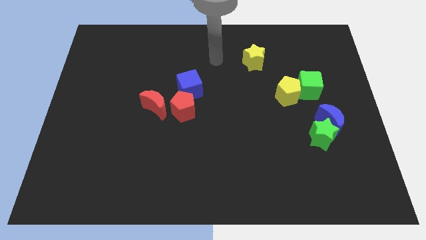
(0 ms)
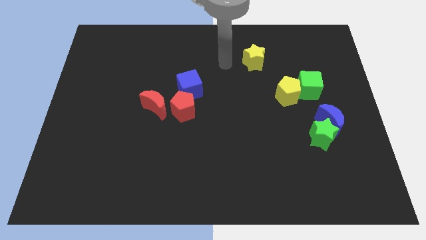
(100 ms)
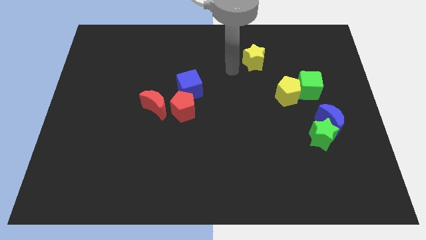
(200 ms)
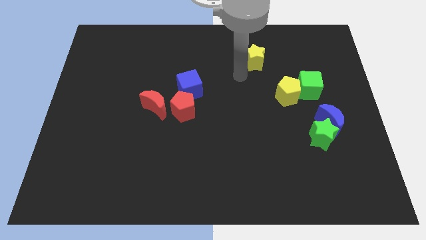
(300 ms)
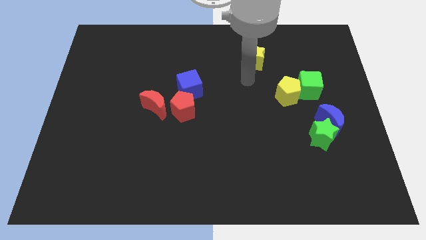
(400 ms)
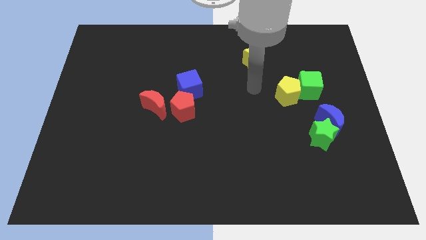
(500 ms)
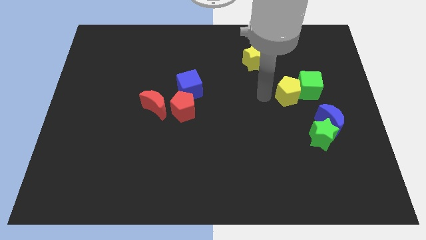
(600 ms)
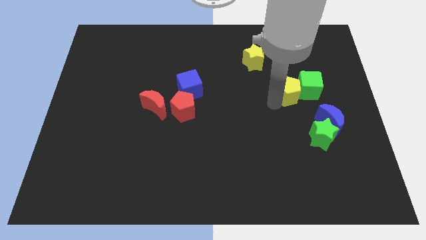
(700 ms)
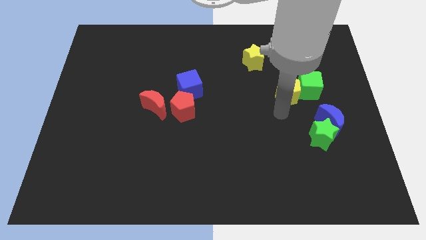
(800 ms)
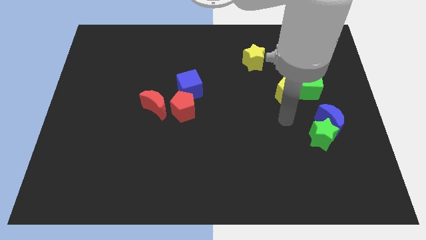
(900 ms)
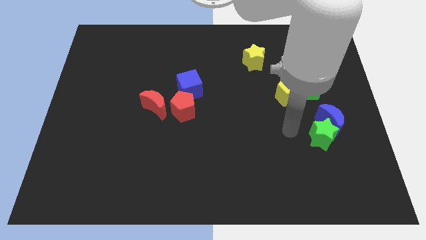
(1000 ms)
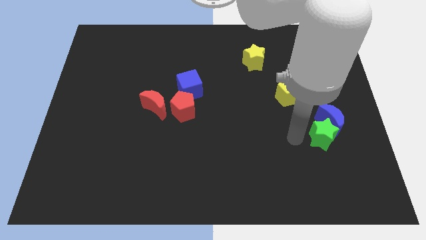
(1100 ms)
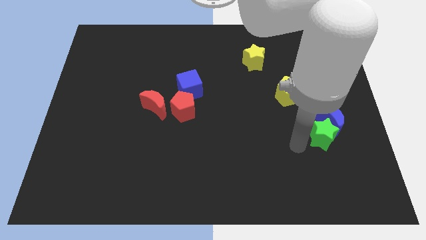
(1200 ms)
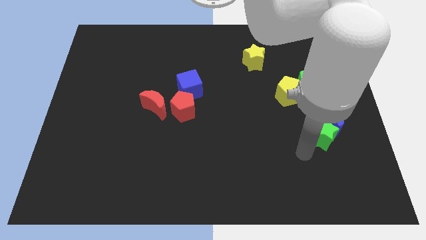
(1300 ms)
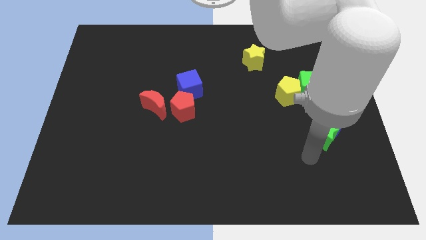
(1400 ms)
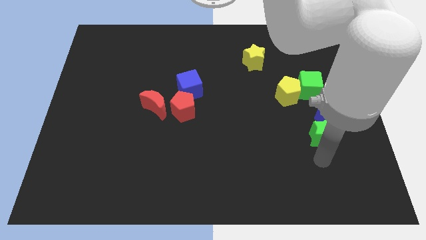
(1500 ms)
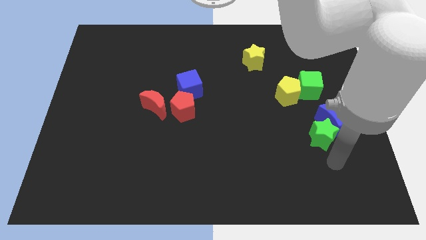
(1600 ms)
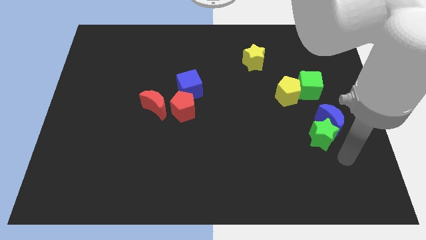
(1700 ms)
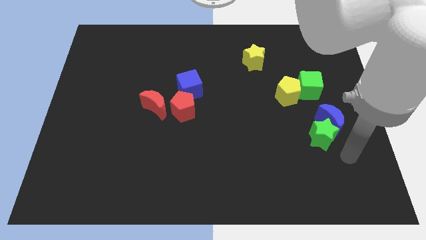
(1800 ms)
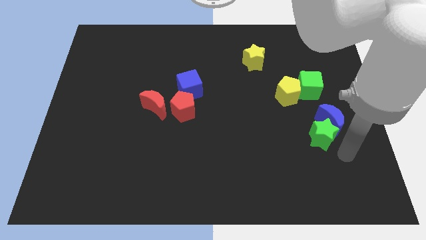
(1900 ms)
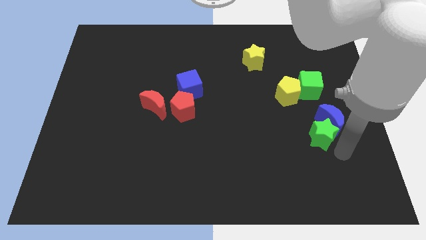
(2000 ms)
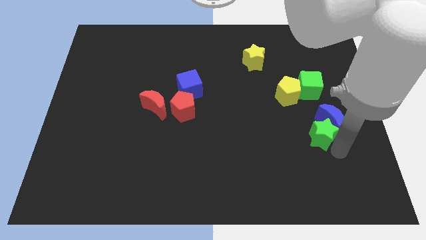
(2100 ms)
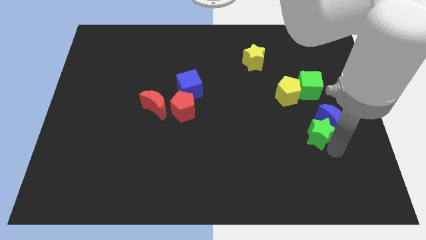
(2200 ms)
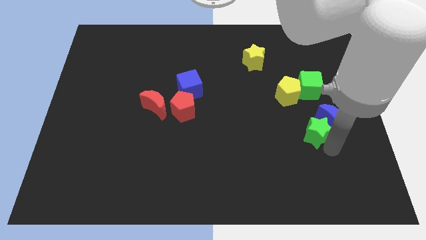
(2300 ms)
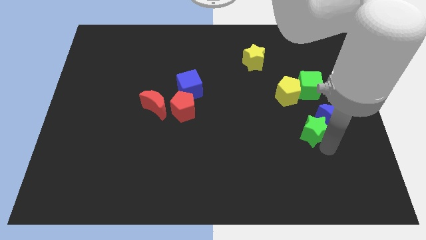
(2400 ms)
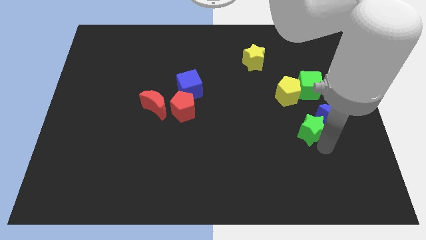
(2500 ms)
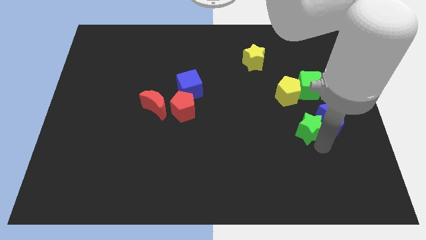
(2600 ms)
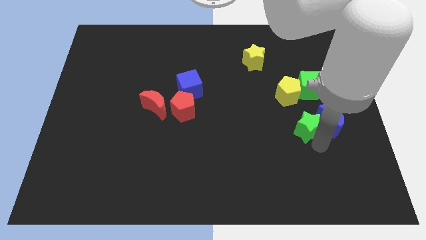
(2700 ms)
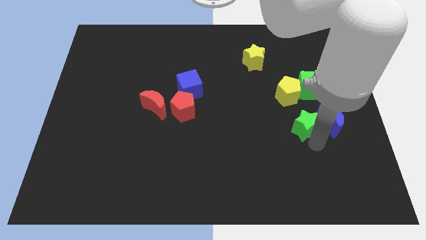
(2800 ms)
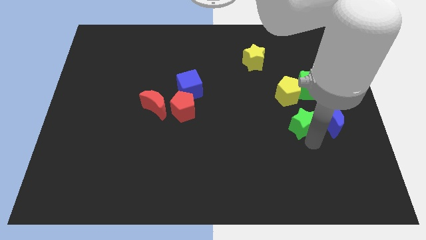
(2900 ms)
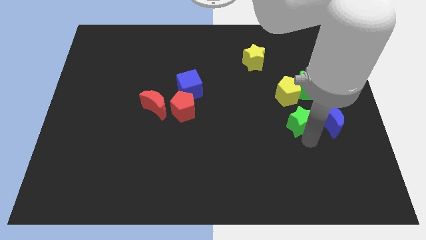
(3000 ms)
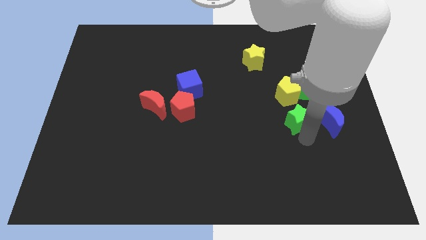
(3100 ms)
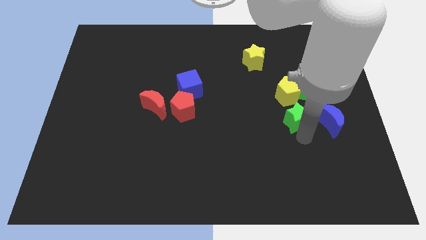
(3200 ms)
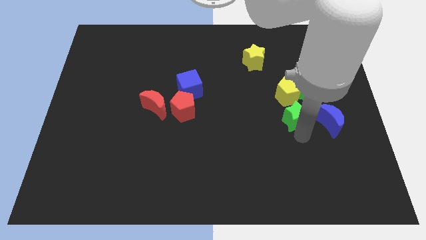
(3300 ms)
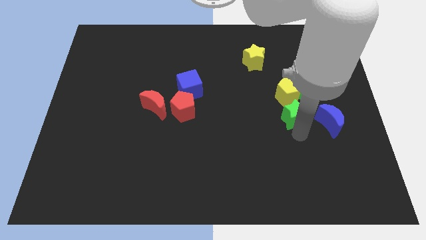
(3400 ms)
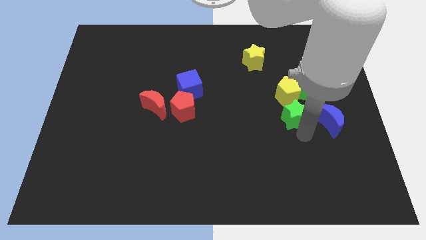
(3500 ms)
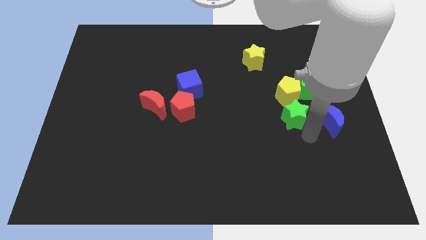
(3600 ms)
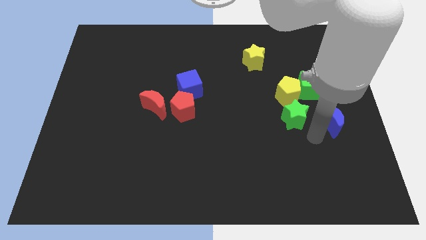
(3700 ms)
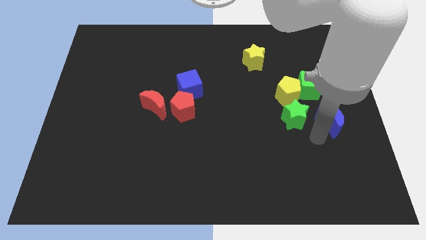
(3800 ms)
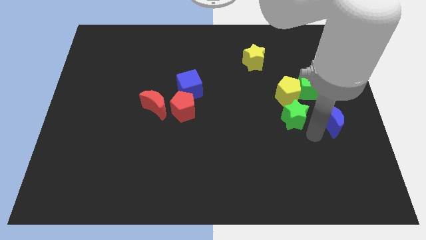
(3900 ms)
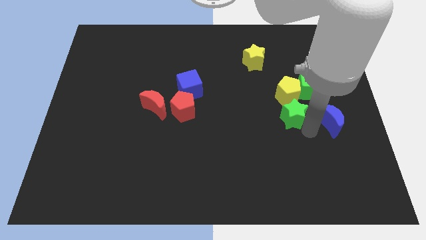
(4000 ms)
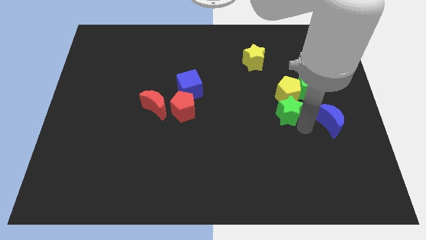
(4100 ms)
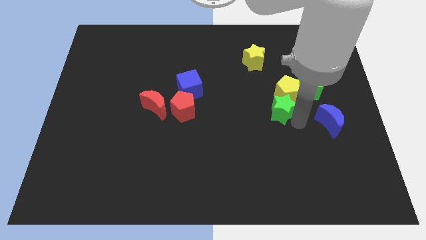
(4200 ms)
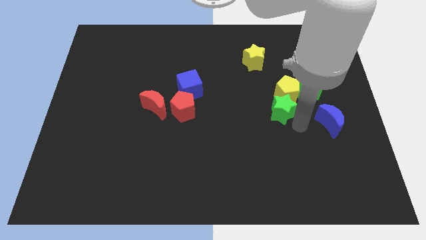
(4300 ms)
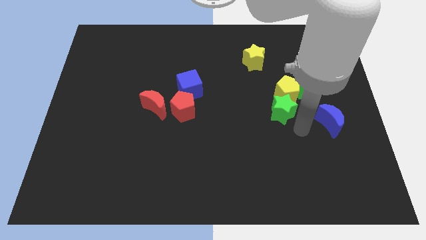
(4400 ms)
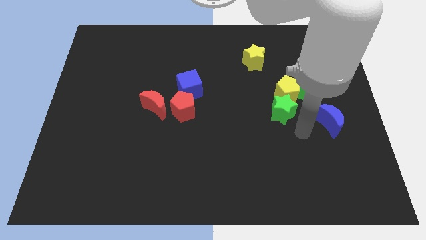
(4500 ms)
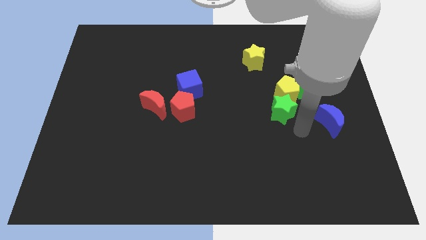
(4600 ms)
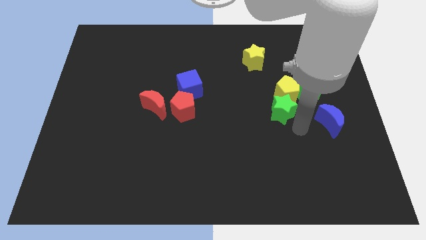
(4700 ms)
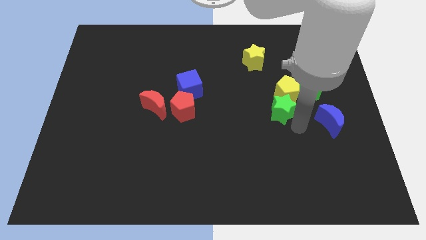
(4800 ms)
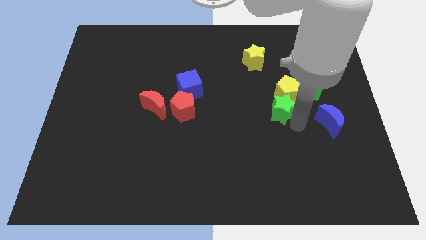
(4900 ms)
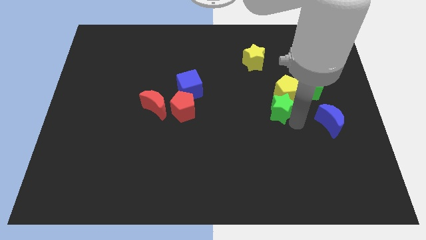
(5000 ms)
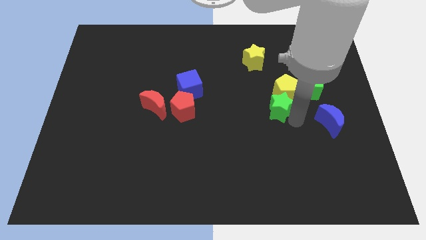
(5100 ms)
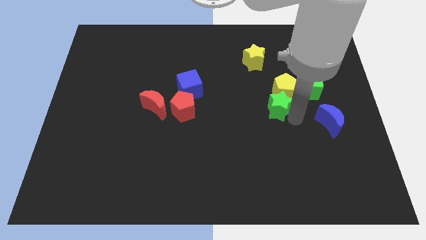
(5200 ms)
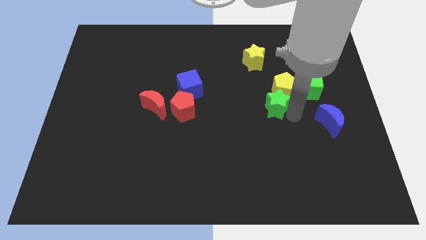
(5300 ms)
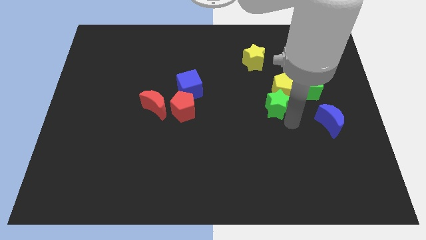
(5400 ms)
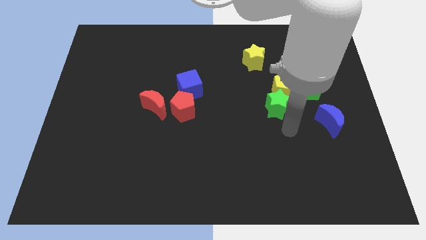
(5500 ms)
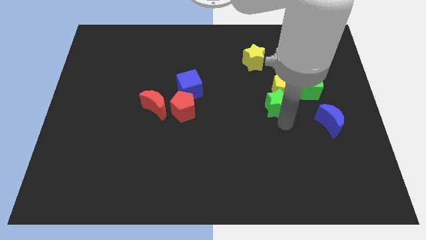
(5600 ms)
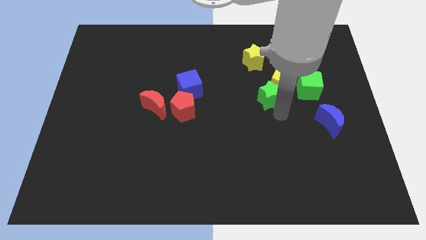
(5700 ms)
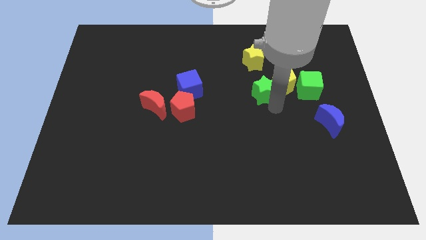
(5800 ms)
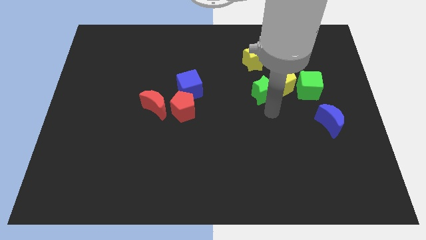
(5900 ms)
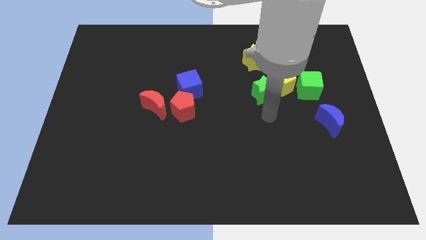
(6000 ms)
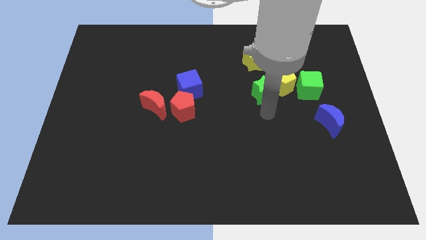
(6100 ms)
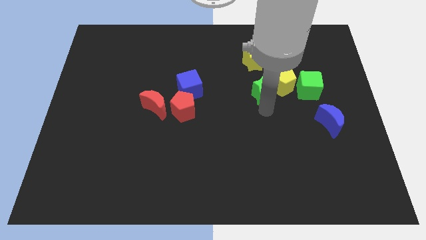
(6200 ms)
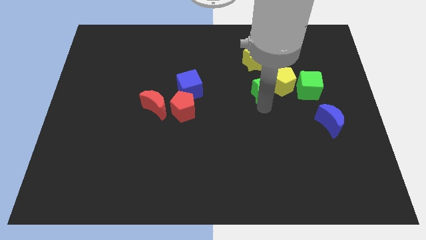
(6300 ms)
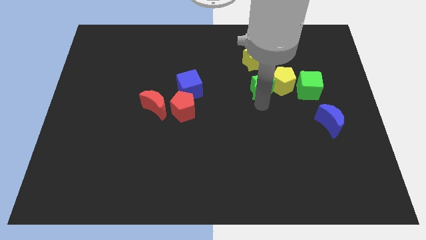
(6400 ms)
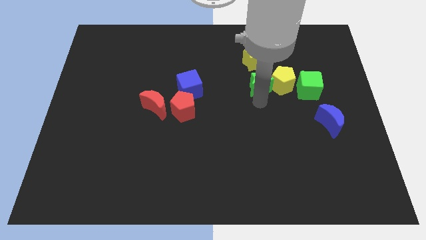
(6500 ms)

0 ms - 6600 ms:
slide the green star to the top left side of the yellow pentagon
